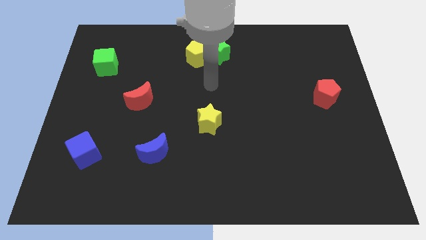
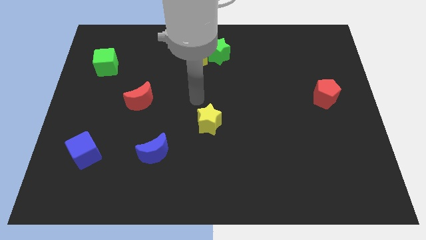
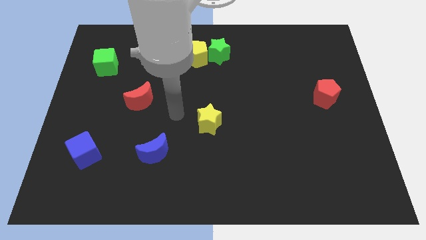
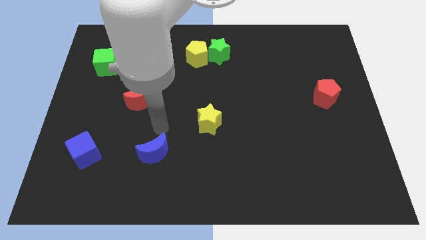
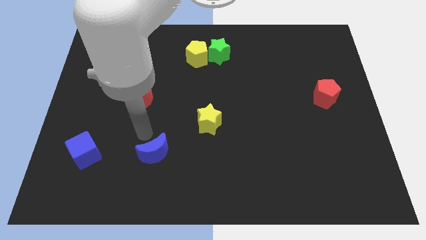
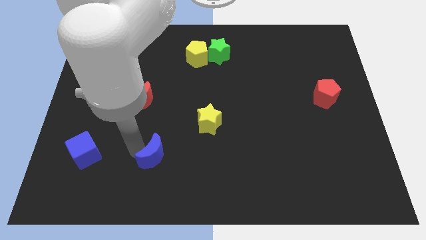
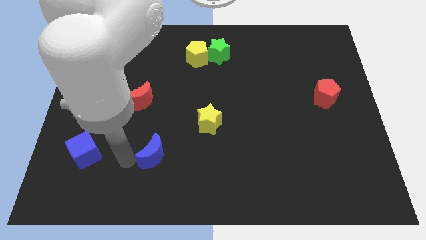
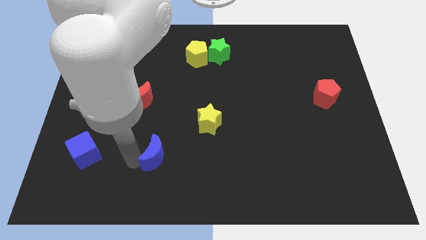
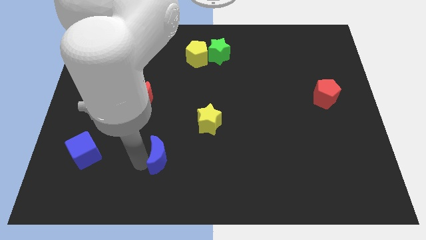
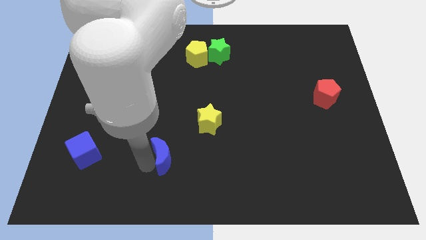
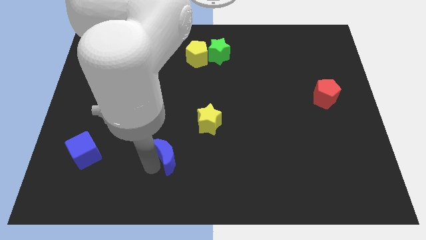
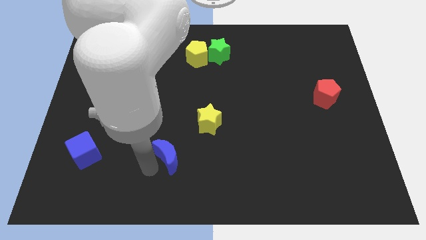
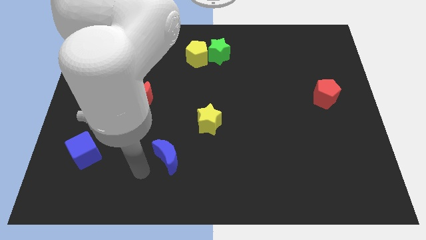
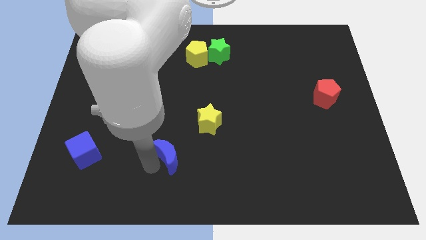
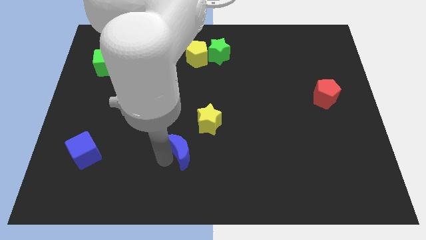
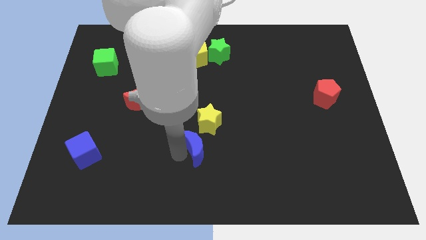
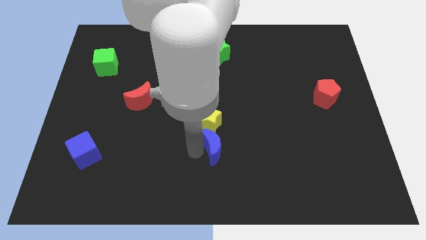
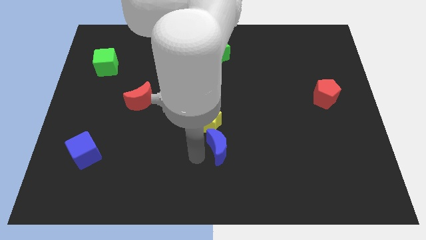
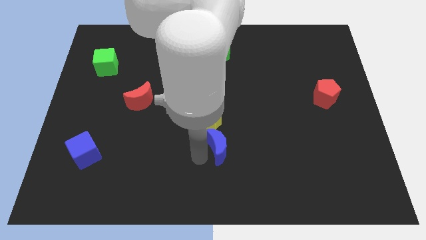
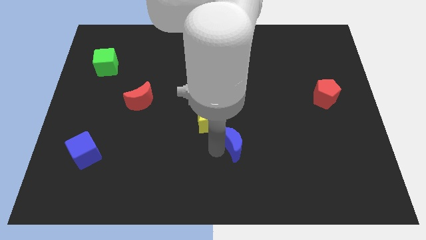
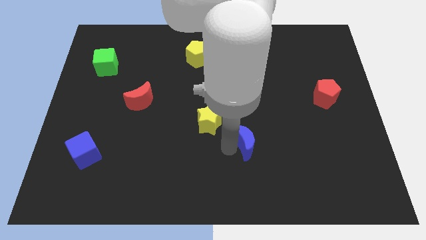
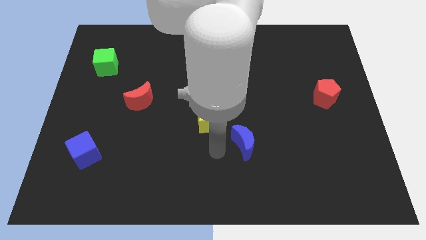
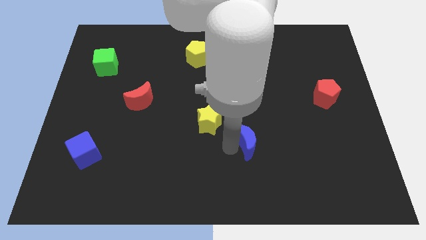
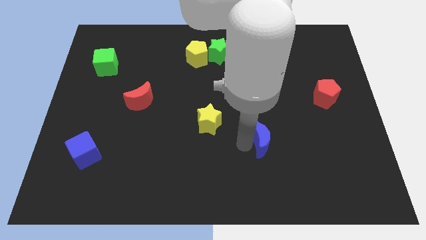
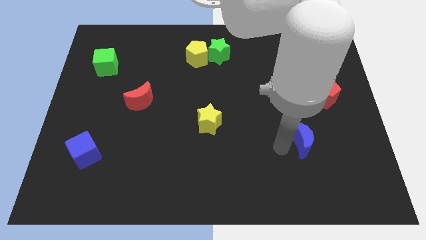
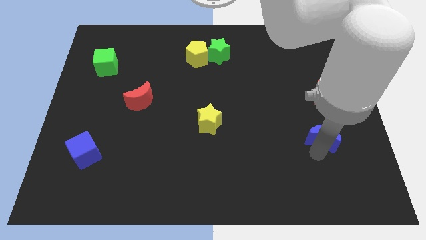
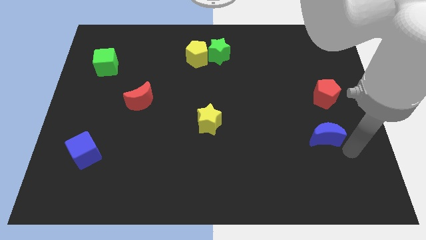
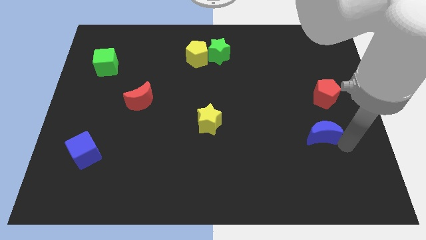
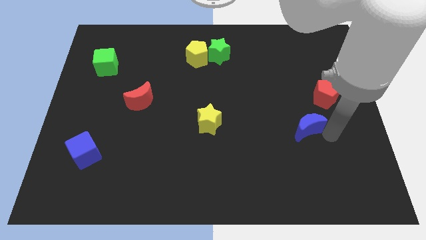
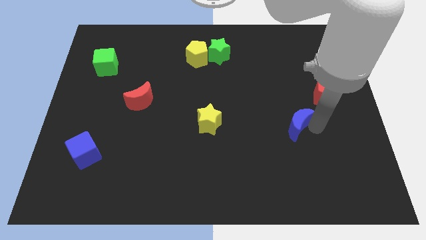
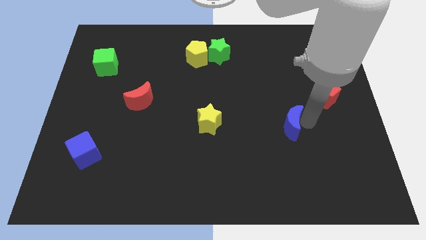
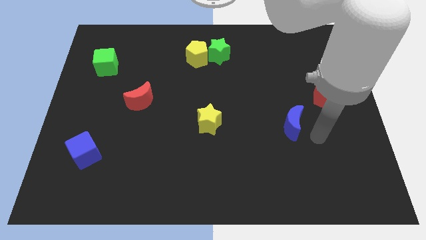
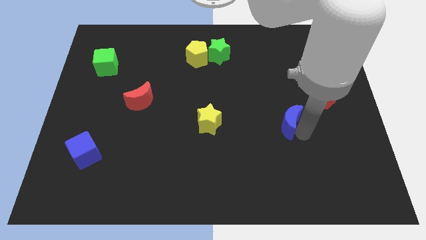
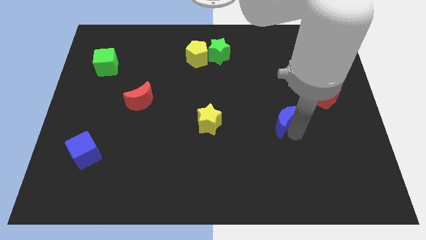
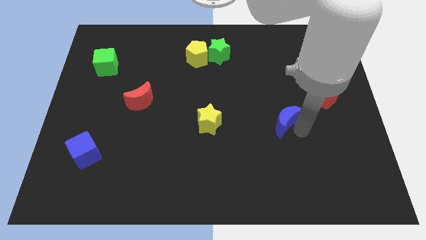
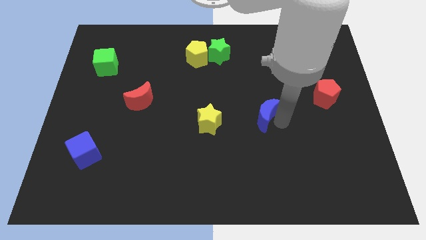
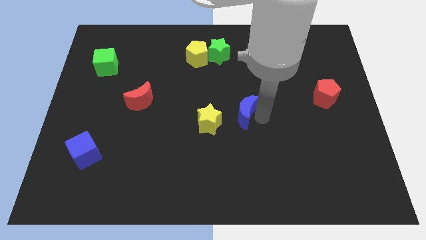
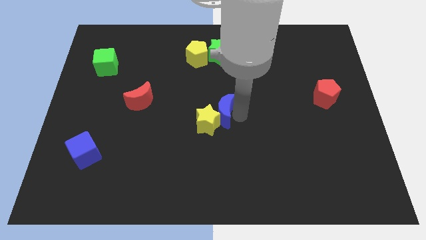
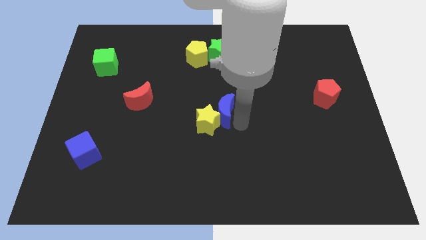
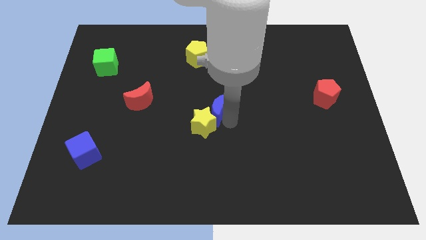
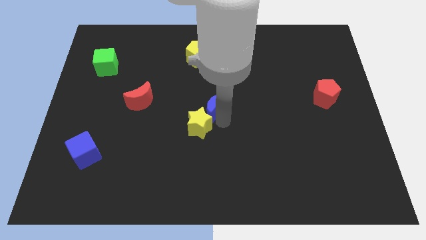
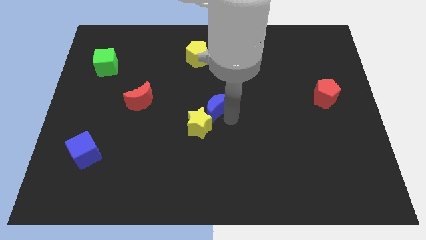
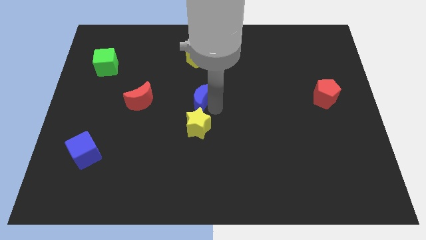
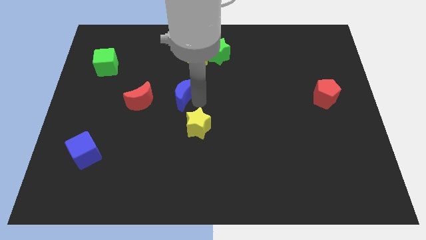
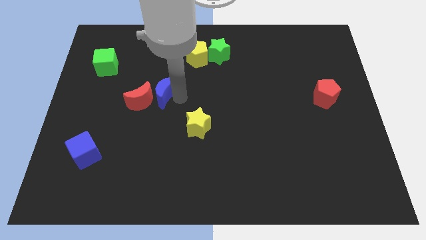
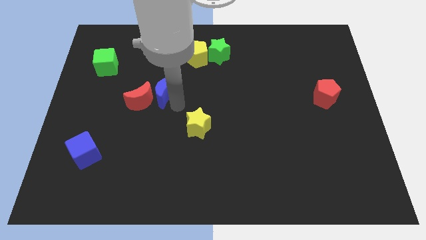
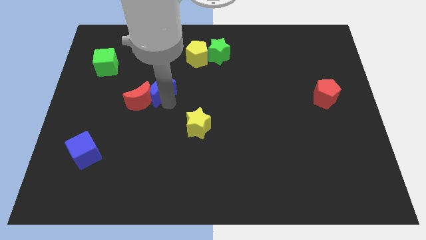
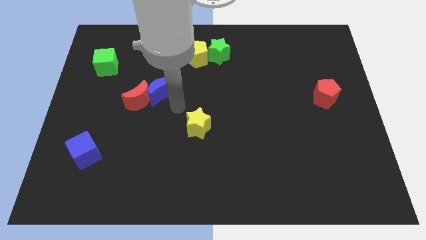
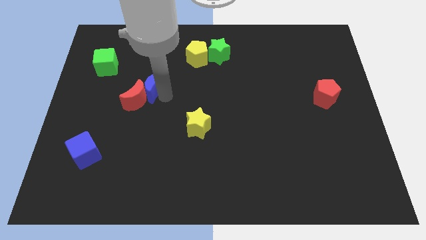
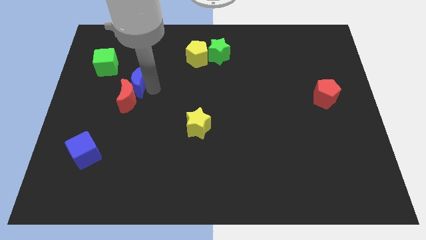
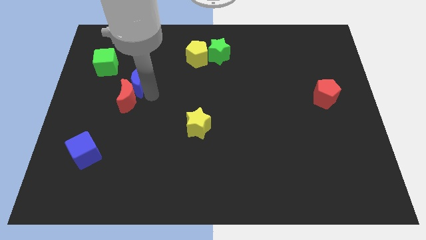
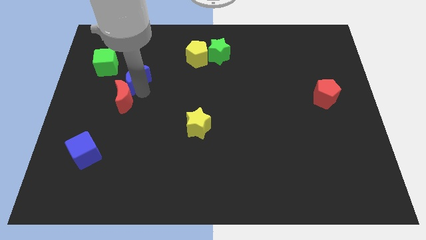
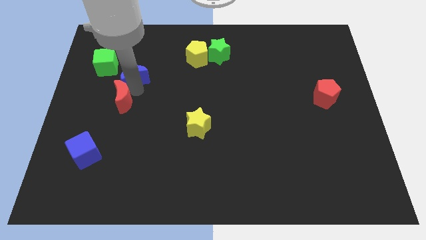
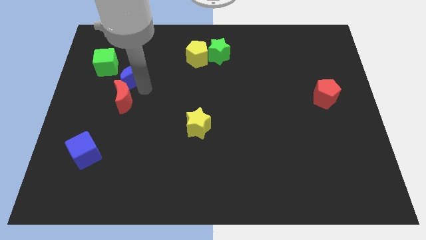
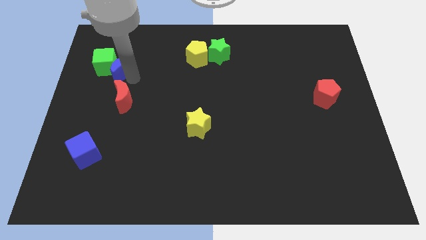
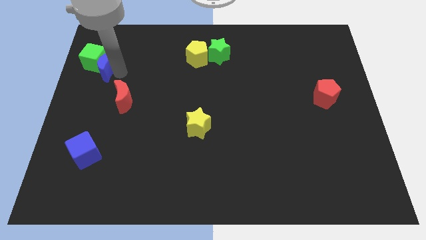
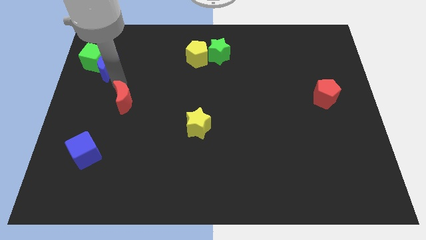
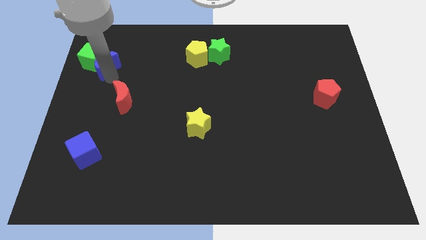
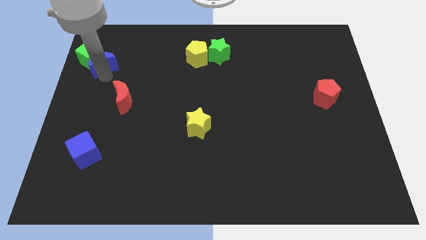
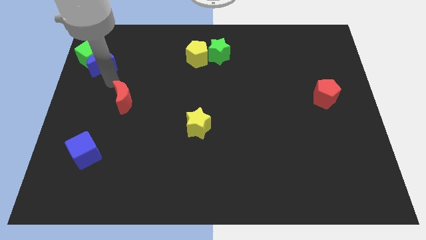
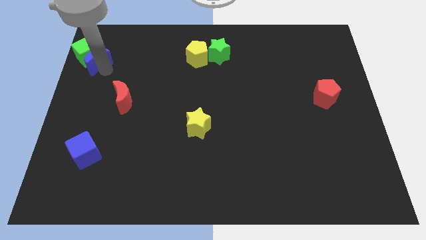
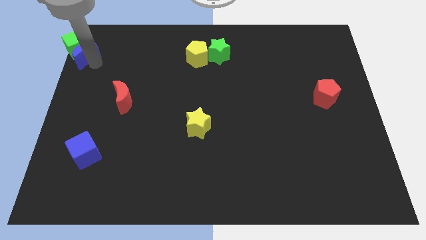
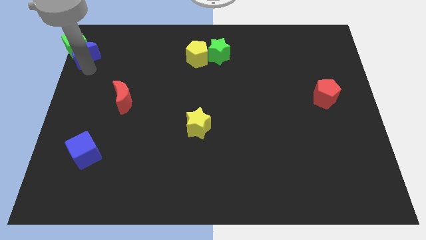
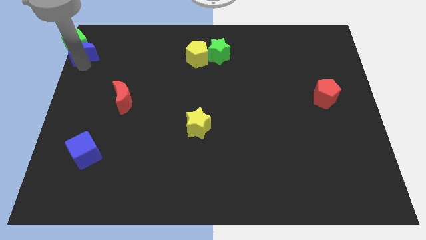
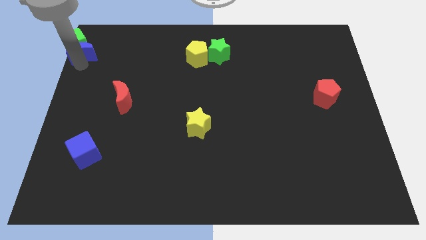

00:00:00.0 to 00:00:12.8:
slide the blue moon to the top left of the board
